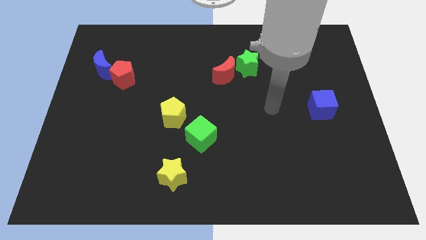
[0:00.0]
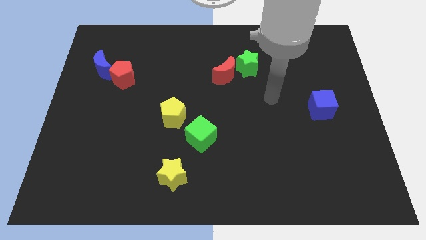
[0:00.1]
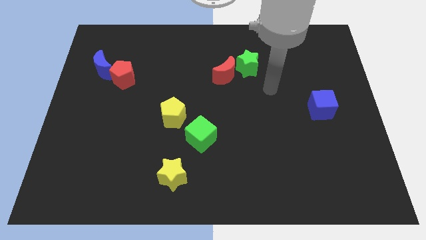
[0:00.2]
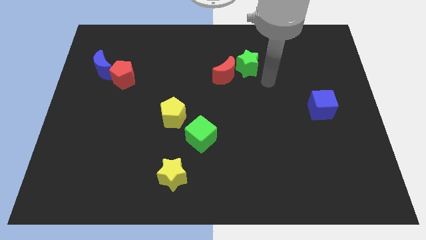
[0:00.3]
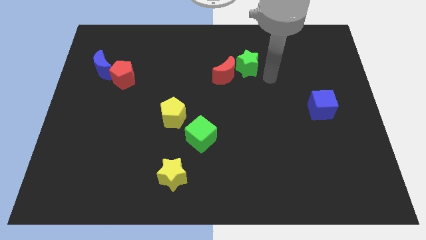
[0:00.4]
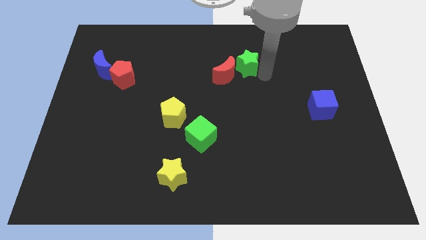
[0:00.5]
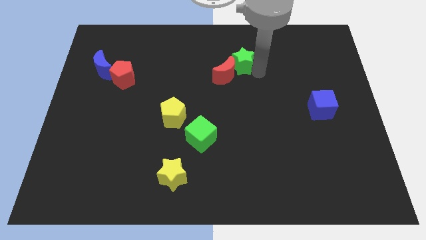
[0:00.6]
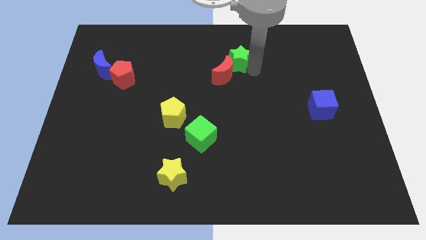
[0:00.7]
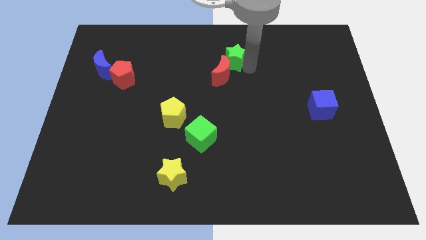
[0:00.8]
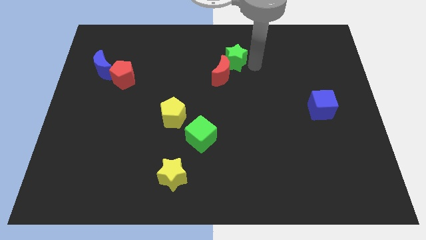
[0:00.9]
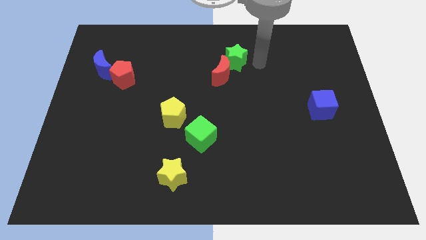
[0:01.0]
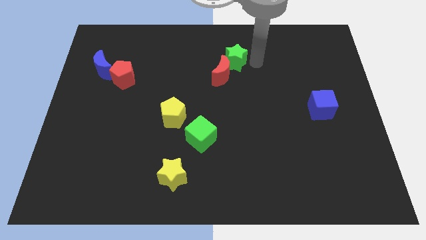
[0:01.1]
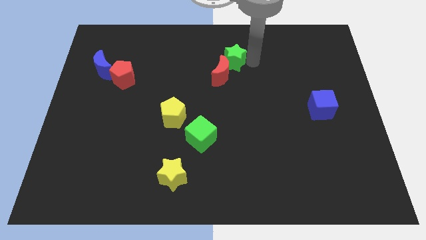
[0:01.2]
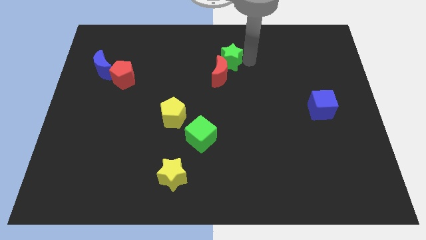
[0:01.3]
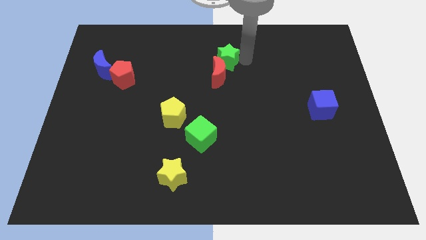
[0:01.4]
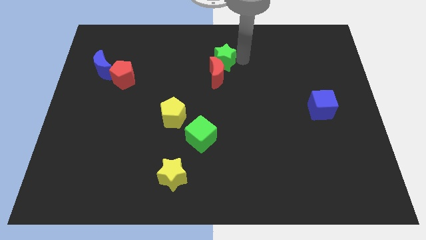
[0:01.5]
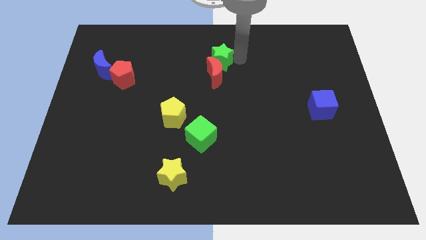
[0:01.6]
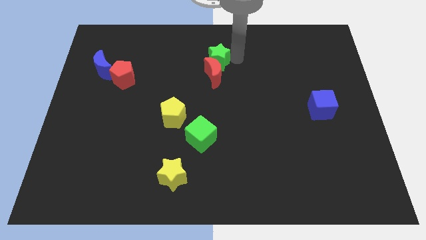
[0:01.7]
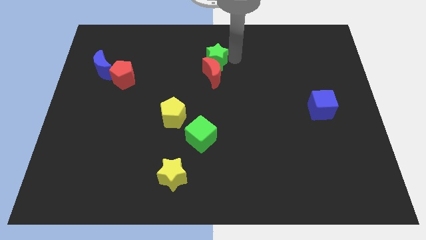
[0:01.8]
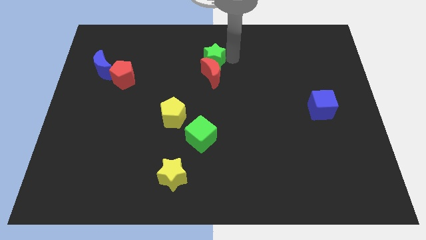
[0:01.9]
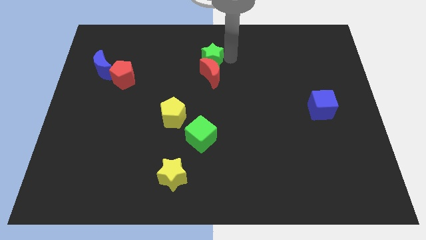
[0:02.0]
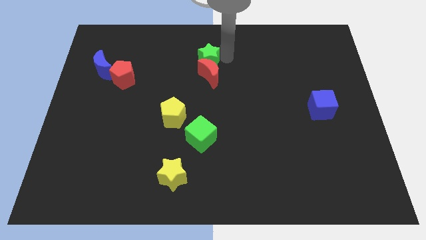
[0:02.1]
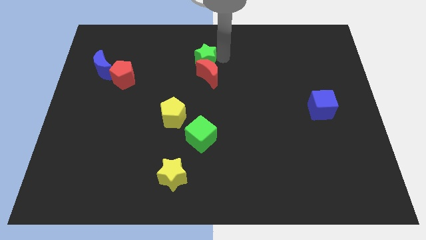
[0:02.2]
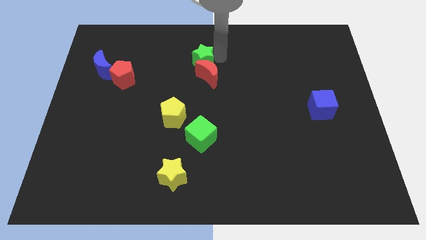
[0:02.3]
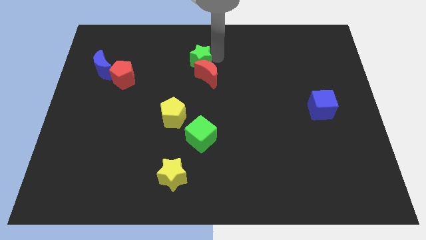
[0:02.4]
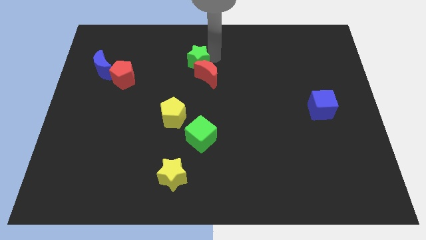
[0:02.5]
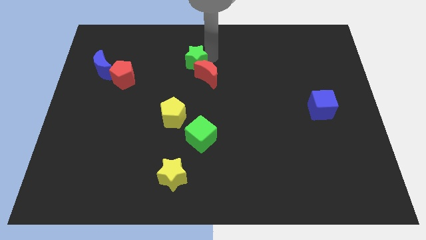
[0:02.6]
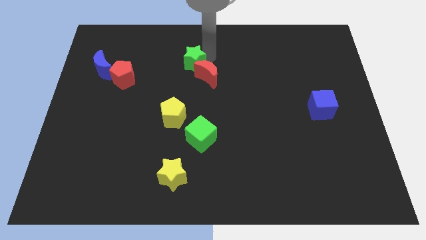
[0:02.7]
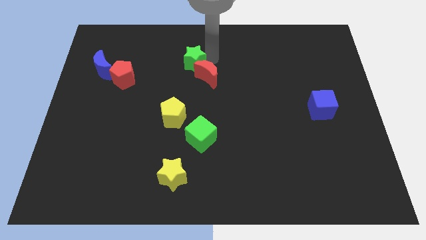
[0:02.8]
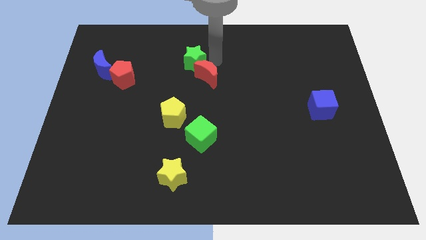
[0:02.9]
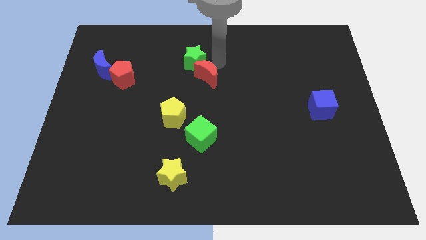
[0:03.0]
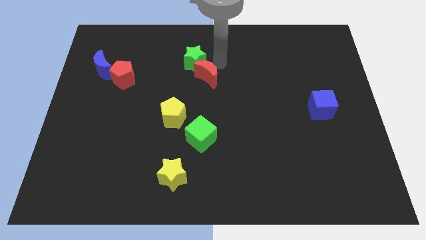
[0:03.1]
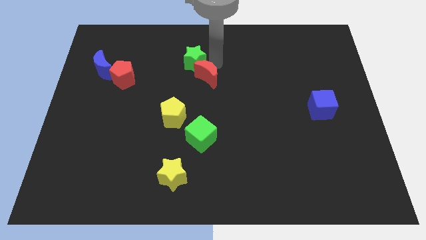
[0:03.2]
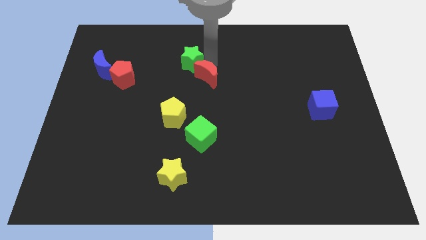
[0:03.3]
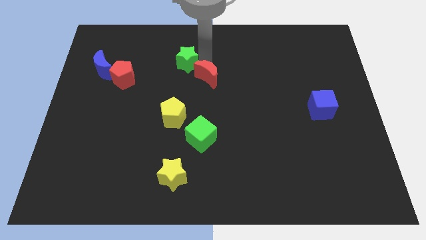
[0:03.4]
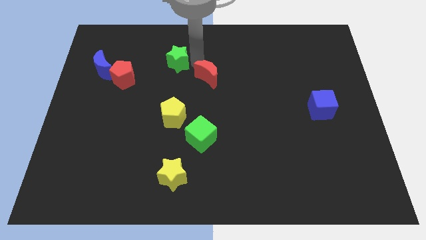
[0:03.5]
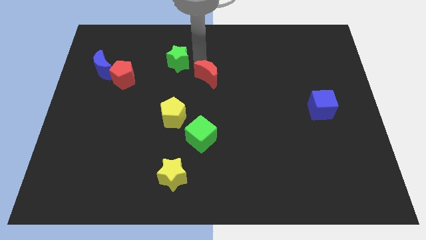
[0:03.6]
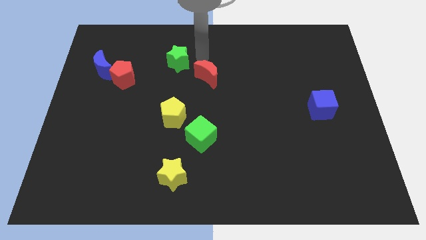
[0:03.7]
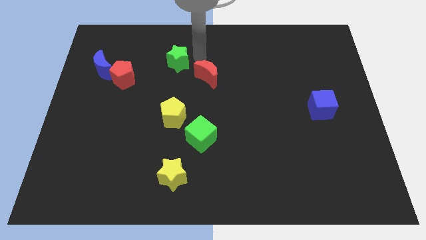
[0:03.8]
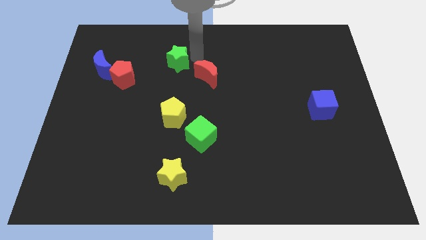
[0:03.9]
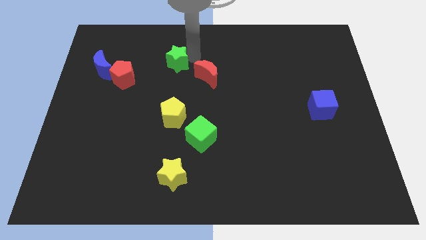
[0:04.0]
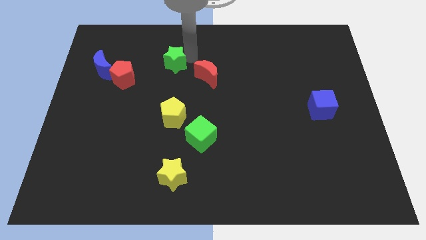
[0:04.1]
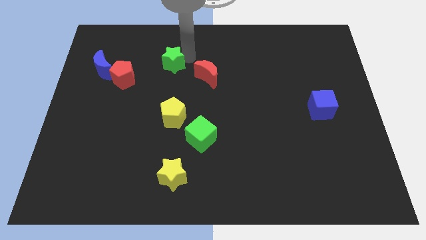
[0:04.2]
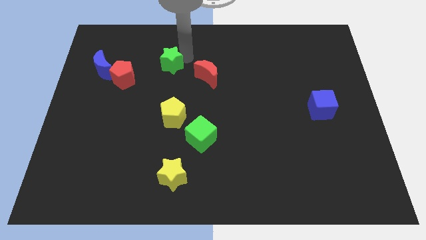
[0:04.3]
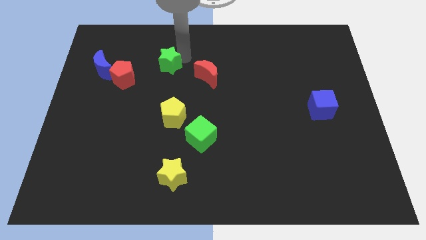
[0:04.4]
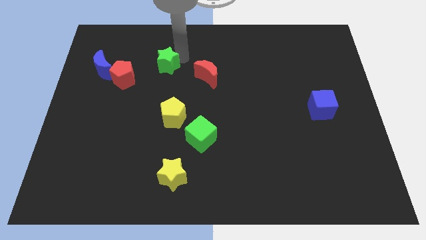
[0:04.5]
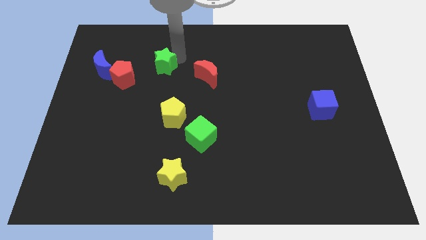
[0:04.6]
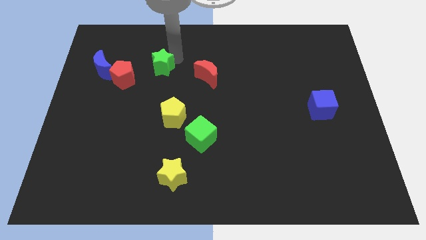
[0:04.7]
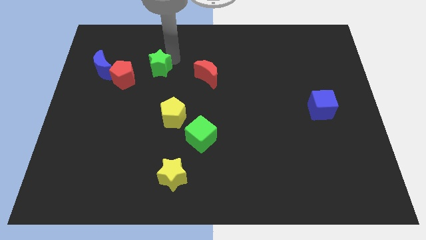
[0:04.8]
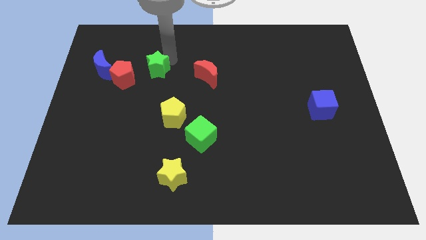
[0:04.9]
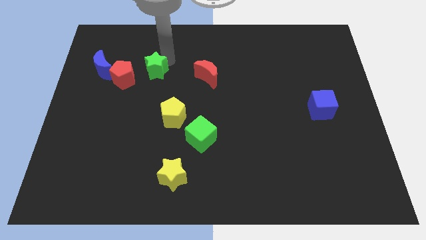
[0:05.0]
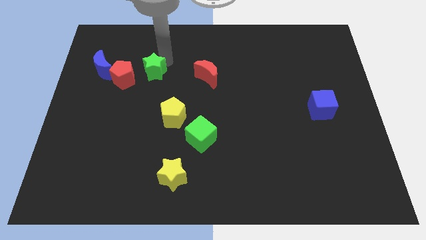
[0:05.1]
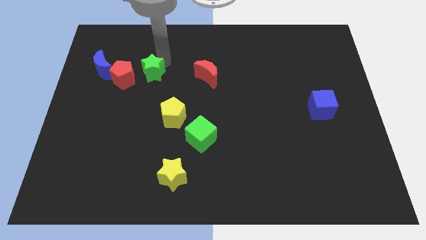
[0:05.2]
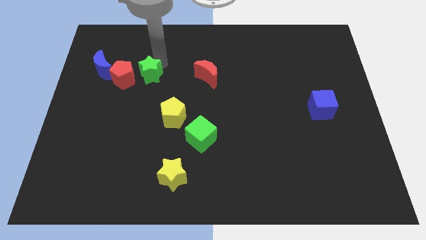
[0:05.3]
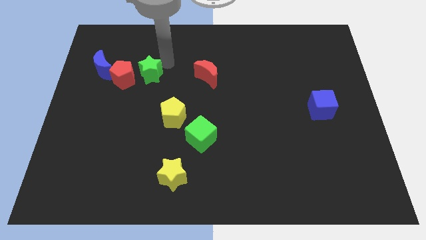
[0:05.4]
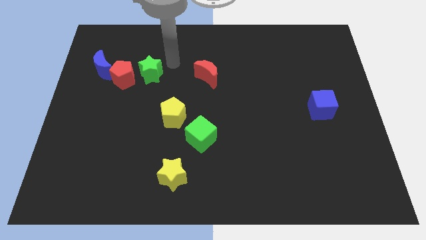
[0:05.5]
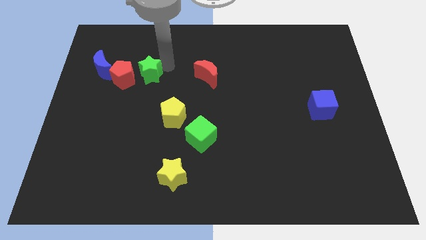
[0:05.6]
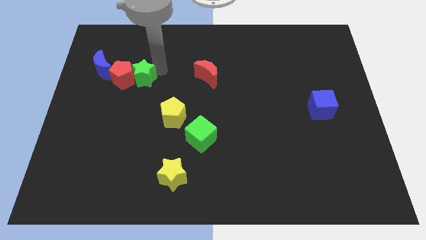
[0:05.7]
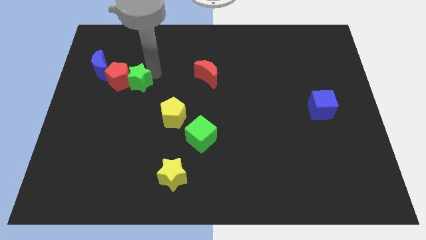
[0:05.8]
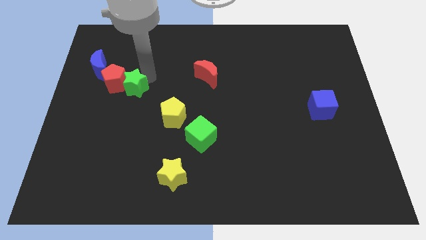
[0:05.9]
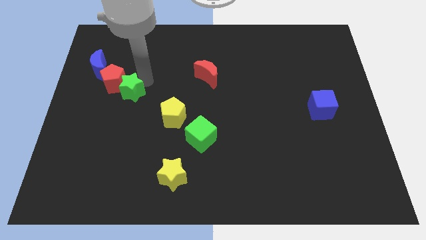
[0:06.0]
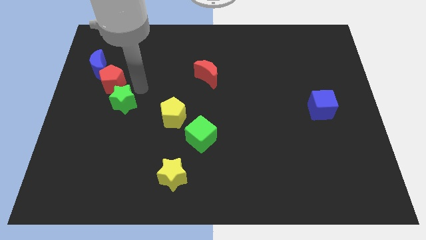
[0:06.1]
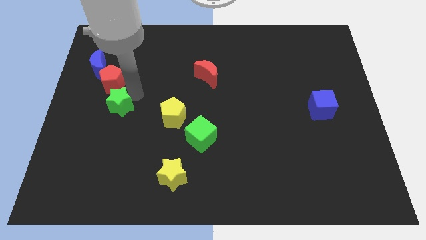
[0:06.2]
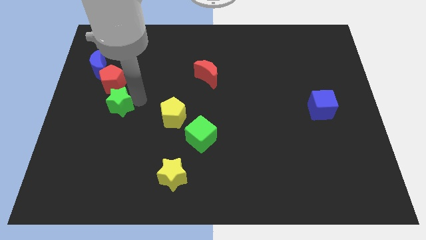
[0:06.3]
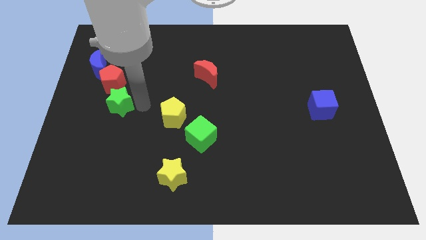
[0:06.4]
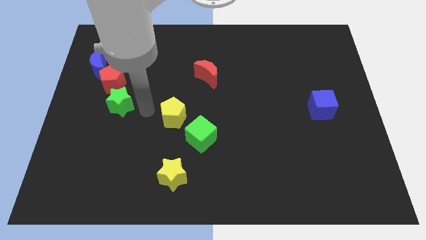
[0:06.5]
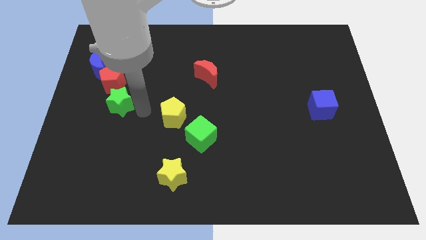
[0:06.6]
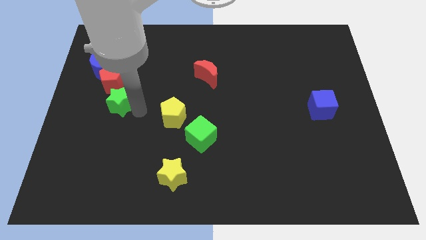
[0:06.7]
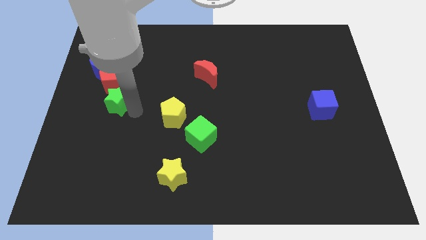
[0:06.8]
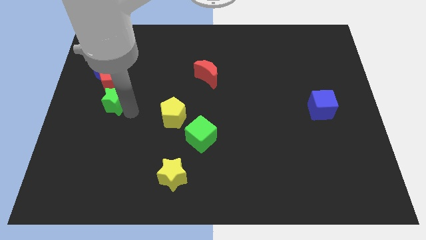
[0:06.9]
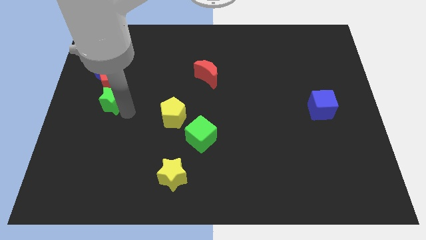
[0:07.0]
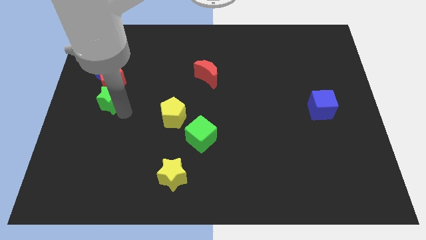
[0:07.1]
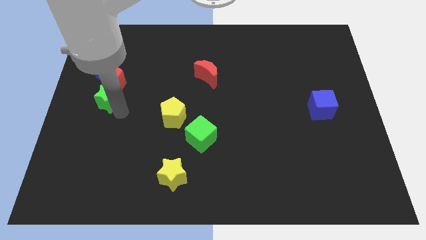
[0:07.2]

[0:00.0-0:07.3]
move the green star to the bottom left of the red pentagon

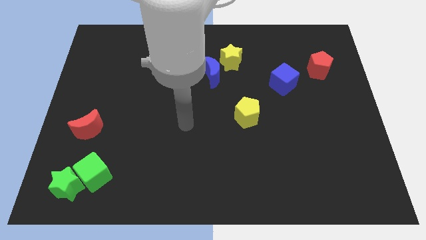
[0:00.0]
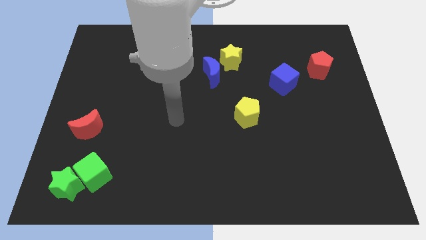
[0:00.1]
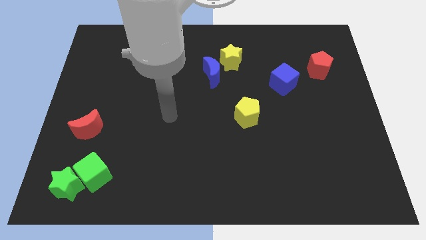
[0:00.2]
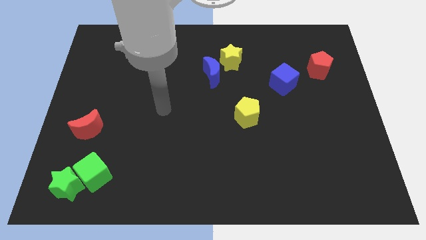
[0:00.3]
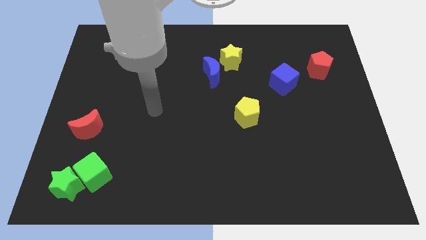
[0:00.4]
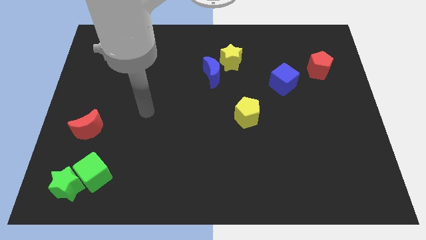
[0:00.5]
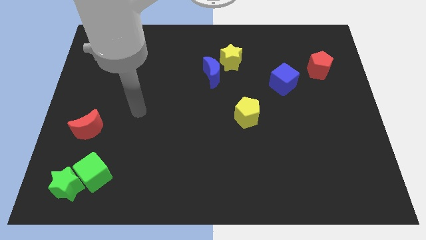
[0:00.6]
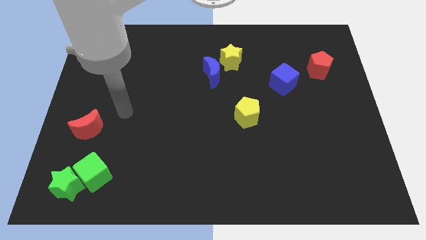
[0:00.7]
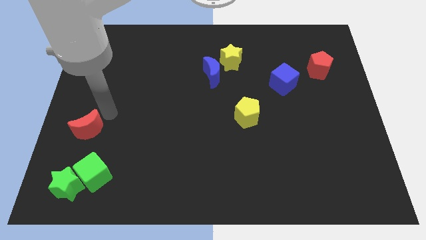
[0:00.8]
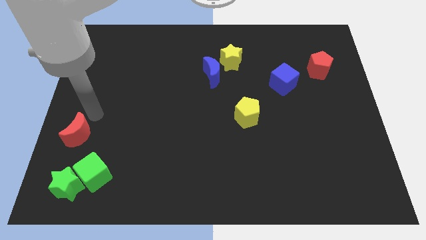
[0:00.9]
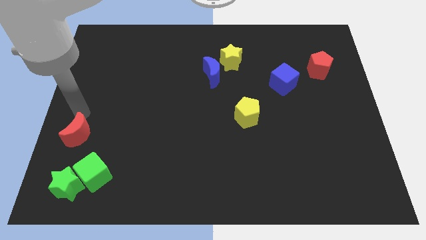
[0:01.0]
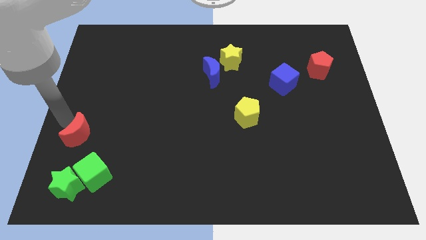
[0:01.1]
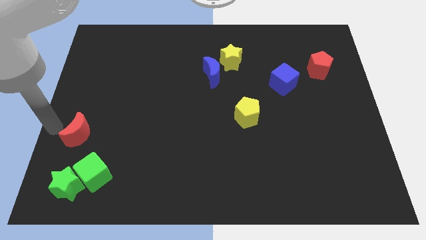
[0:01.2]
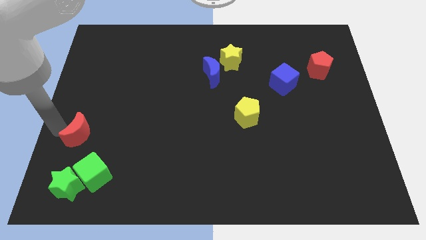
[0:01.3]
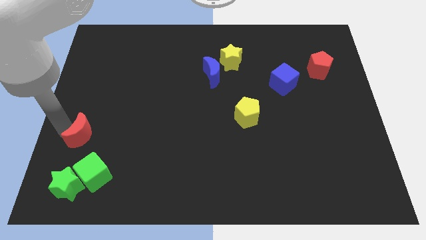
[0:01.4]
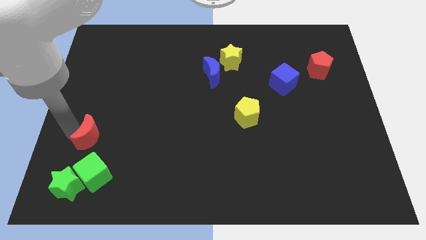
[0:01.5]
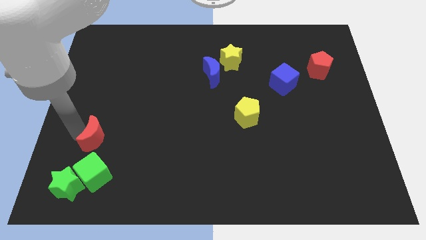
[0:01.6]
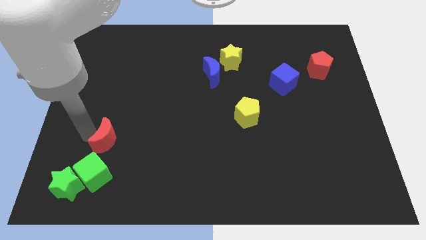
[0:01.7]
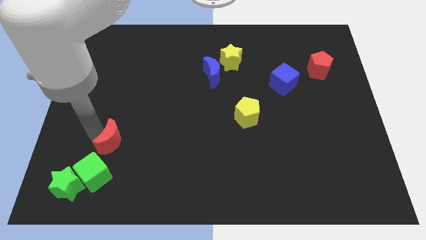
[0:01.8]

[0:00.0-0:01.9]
push the red moon to the top right side of the green cube
